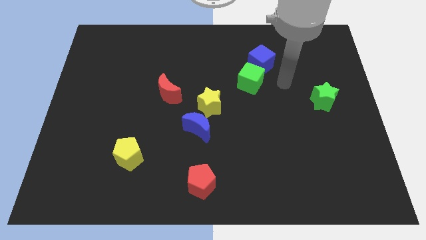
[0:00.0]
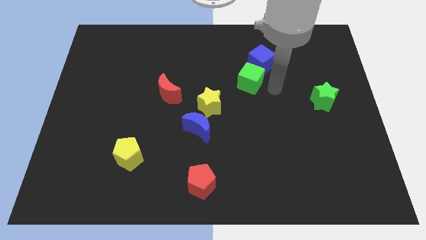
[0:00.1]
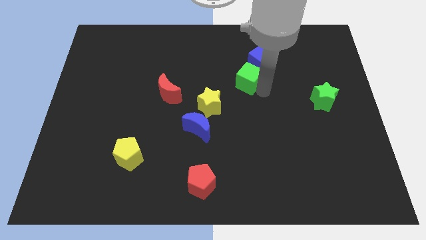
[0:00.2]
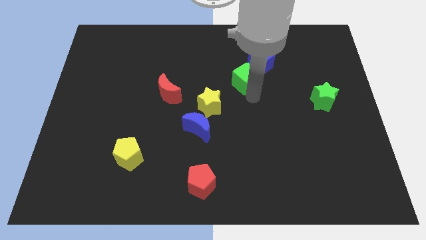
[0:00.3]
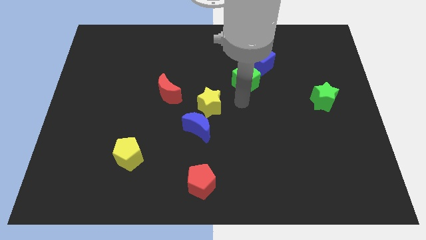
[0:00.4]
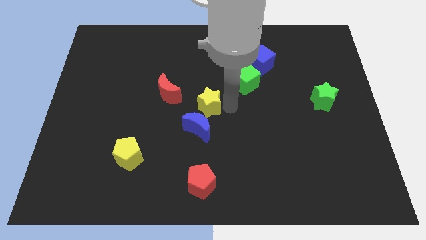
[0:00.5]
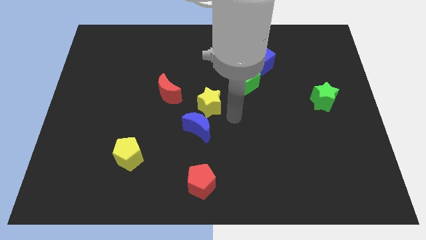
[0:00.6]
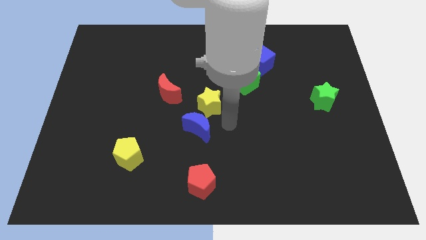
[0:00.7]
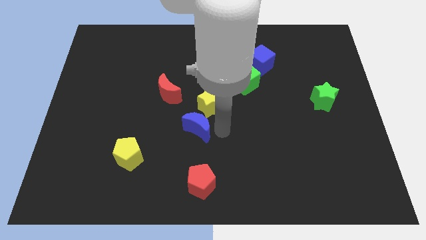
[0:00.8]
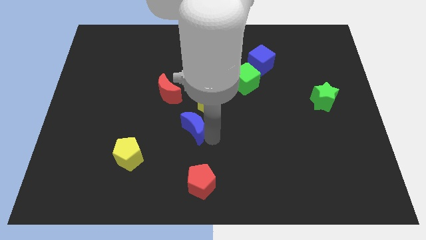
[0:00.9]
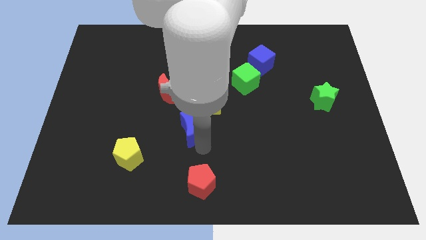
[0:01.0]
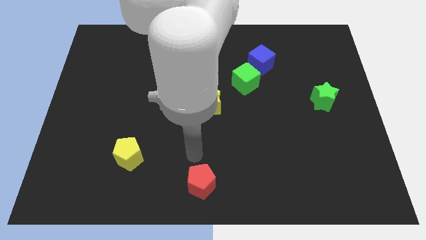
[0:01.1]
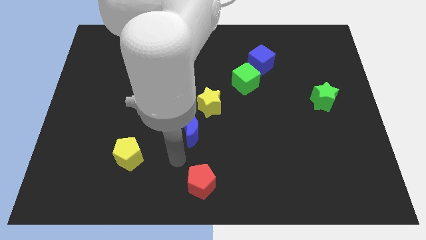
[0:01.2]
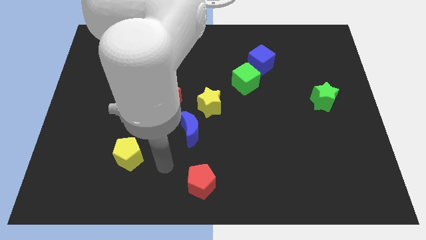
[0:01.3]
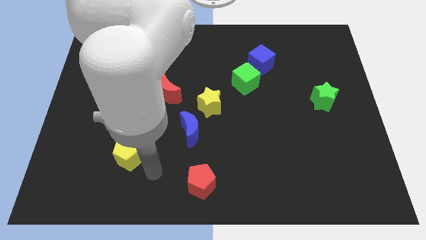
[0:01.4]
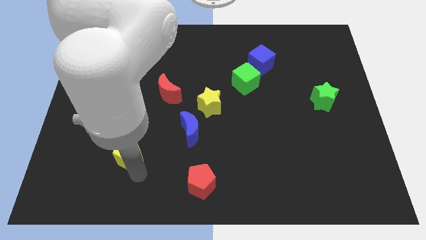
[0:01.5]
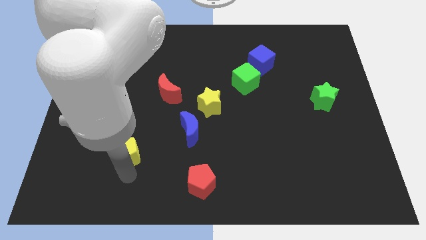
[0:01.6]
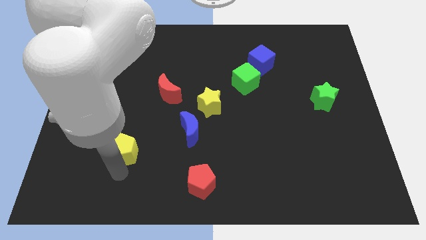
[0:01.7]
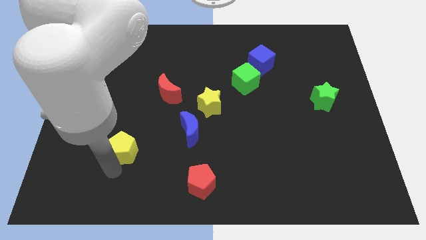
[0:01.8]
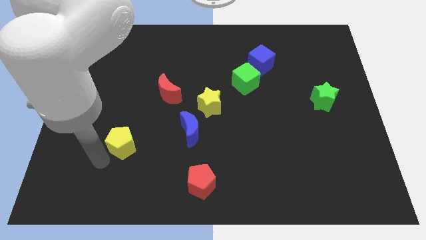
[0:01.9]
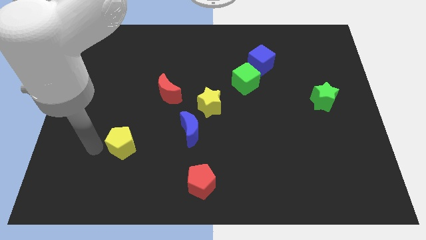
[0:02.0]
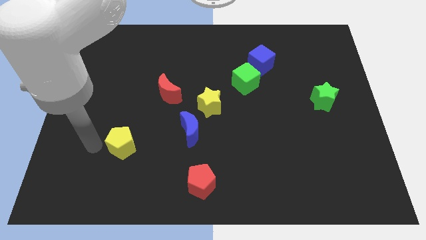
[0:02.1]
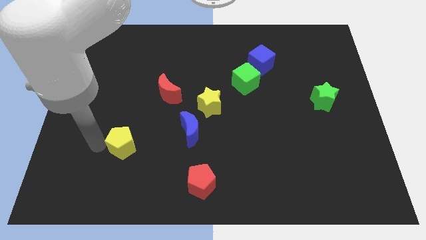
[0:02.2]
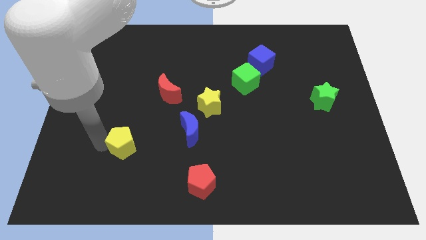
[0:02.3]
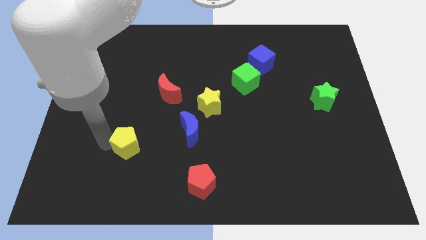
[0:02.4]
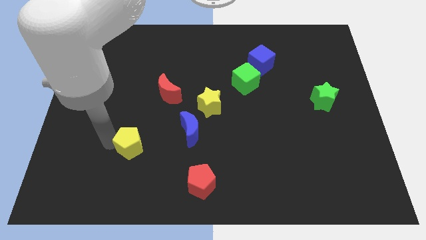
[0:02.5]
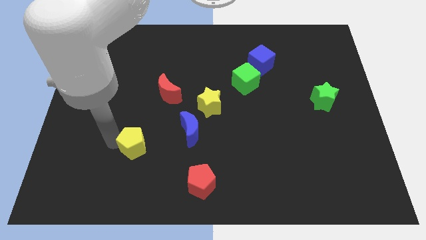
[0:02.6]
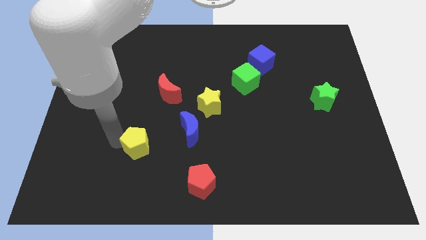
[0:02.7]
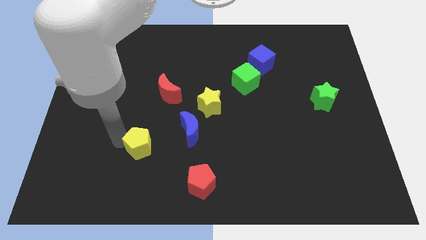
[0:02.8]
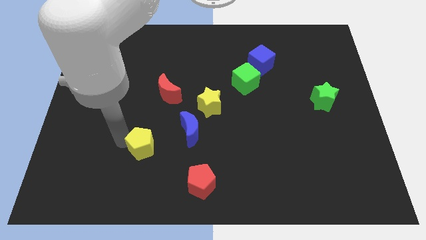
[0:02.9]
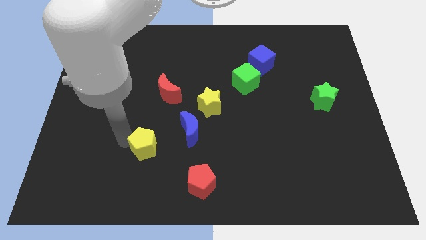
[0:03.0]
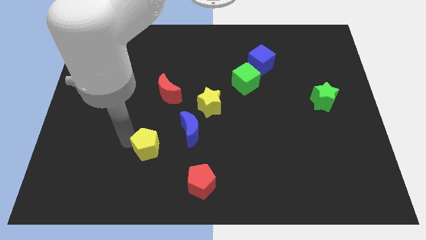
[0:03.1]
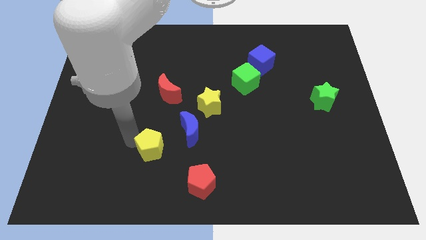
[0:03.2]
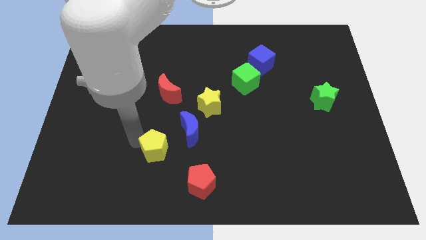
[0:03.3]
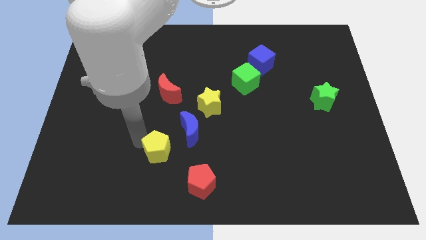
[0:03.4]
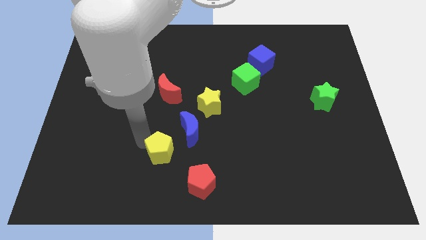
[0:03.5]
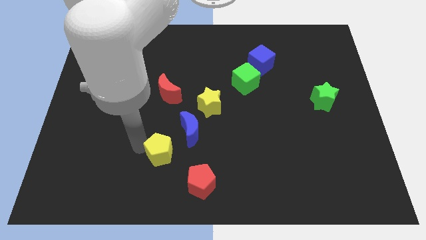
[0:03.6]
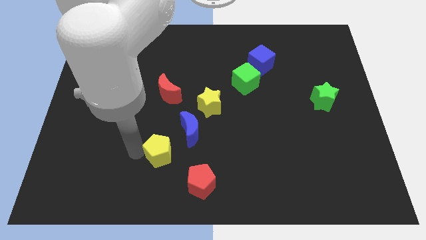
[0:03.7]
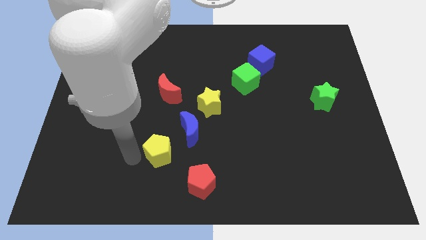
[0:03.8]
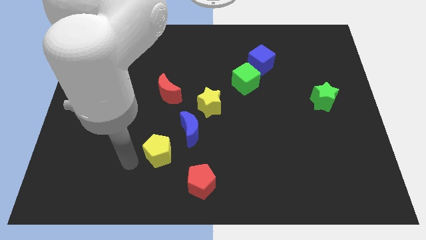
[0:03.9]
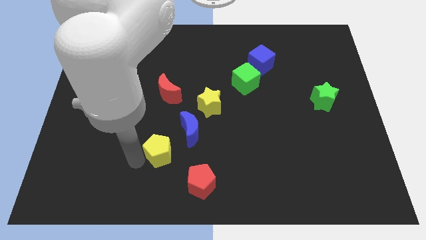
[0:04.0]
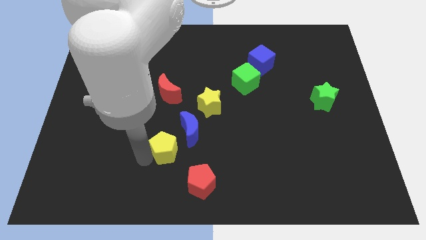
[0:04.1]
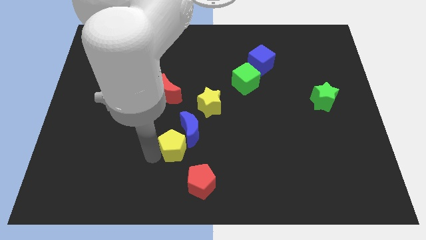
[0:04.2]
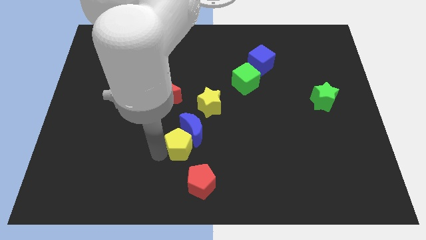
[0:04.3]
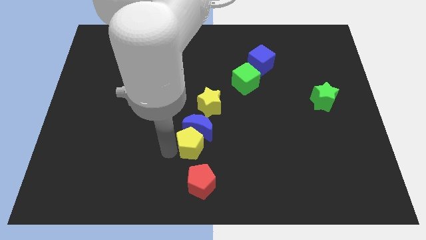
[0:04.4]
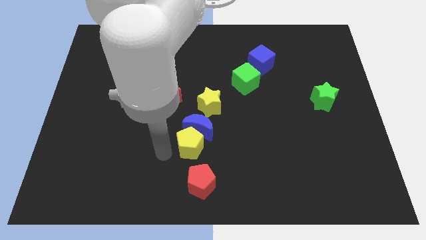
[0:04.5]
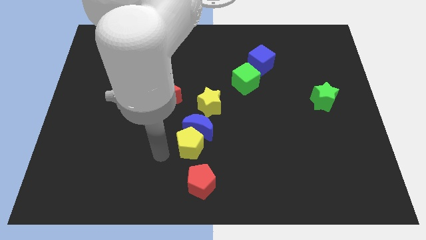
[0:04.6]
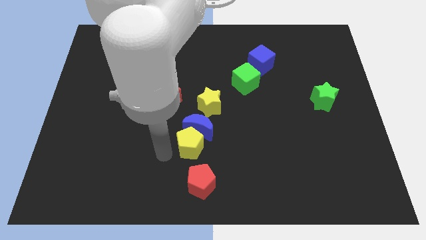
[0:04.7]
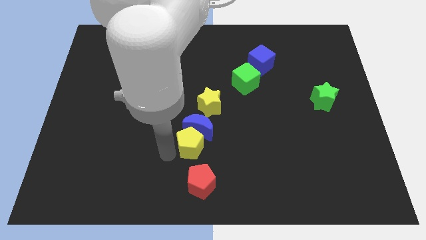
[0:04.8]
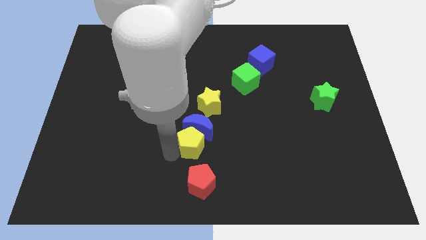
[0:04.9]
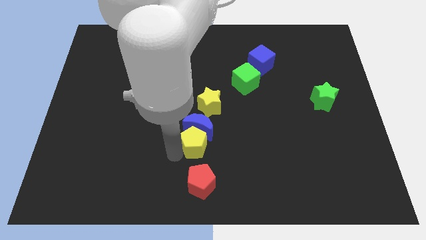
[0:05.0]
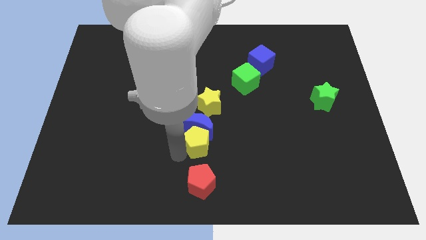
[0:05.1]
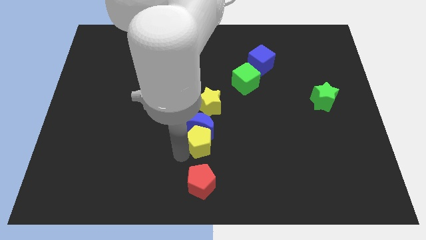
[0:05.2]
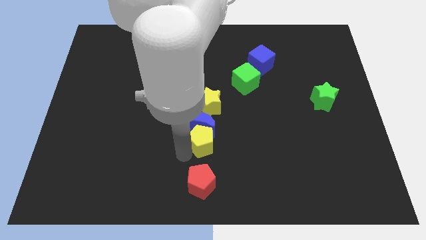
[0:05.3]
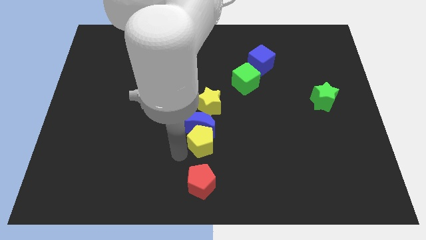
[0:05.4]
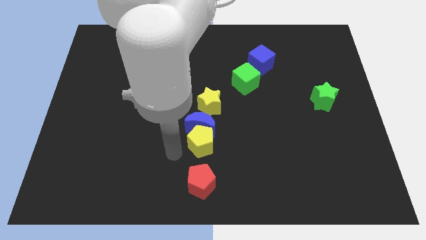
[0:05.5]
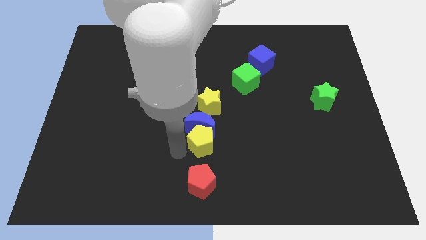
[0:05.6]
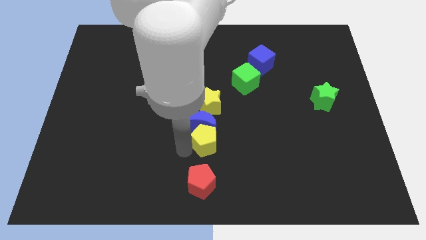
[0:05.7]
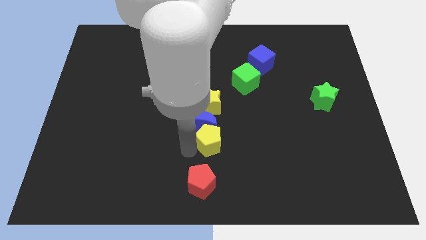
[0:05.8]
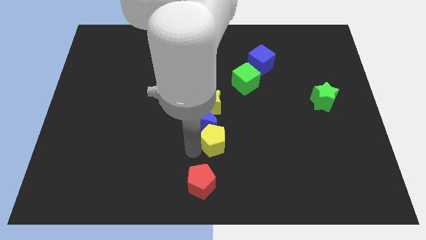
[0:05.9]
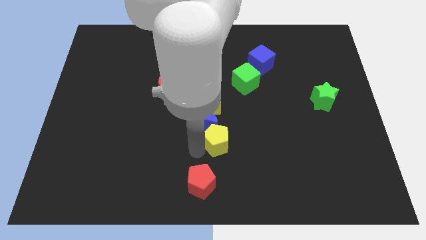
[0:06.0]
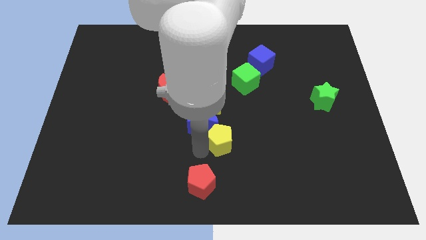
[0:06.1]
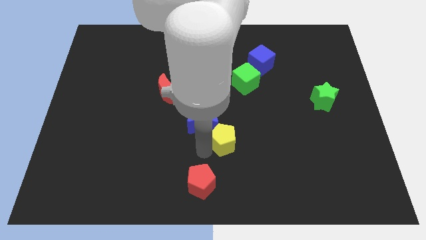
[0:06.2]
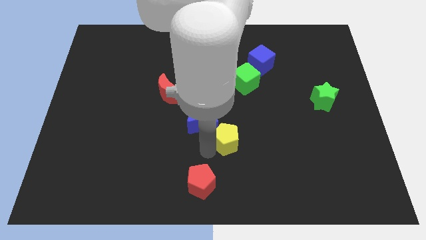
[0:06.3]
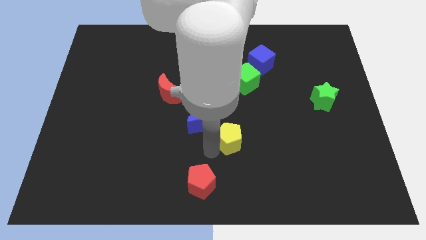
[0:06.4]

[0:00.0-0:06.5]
push the yellow pentagon to the bottom right side of the yellow star

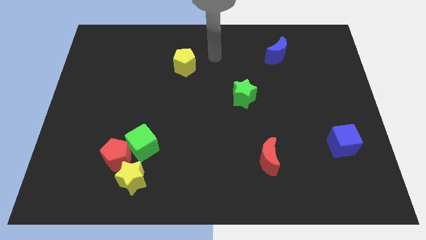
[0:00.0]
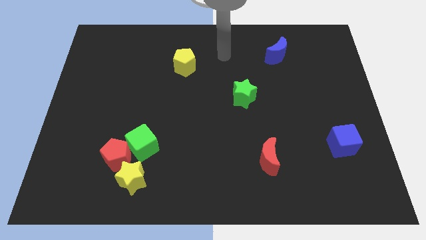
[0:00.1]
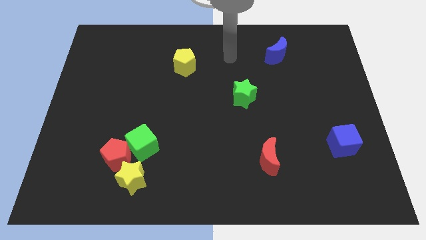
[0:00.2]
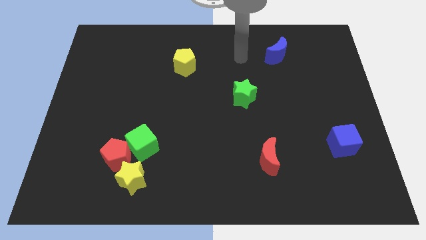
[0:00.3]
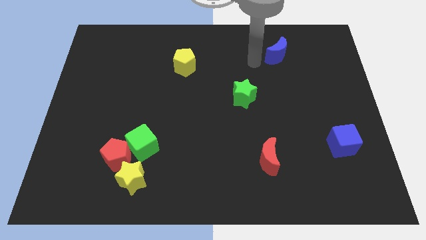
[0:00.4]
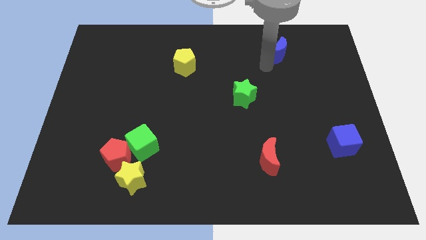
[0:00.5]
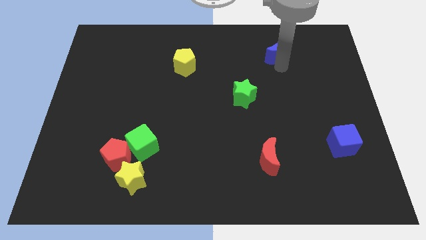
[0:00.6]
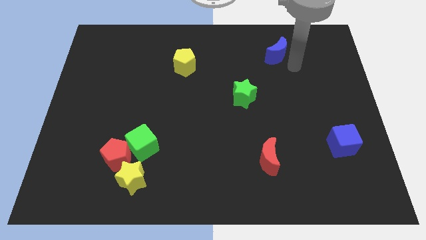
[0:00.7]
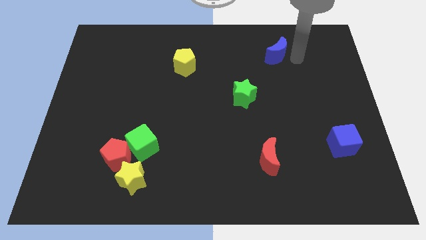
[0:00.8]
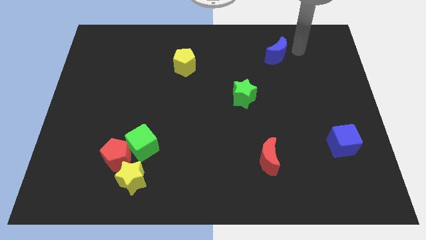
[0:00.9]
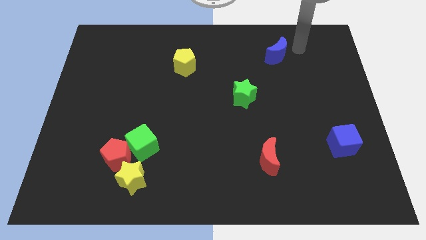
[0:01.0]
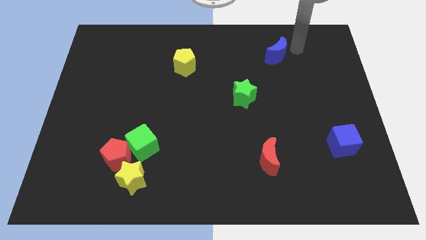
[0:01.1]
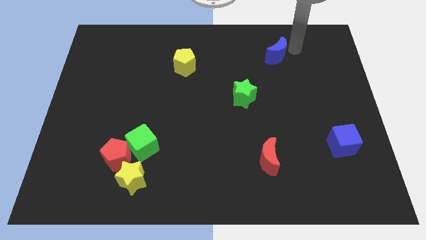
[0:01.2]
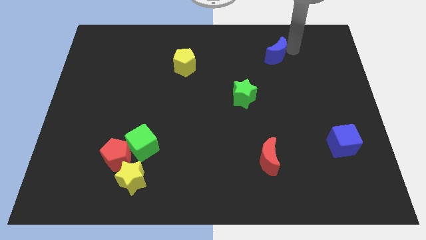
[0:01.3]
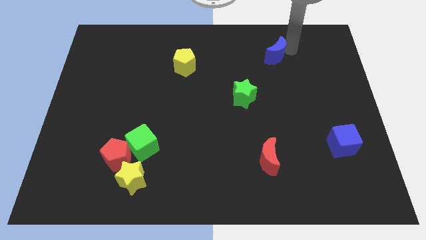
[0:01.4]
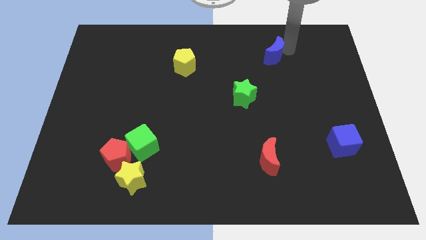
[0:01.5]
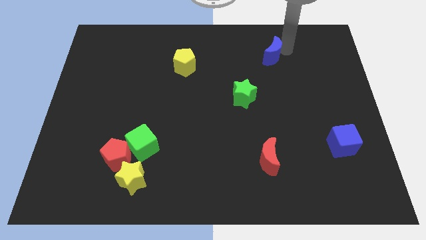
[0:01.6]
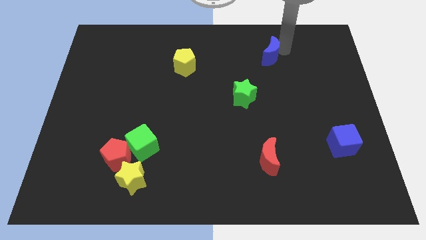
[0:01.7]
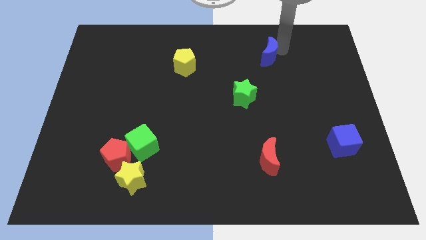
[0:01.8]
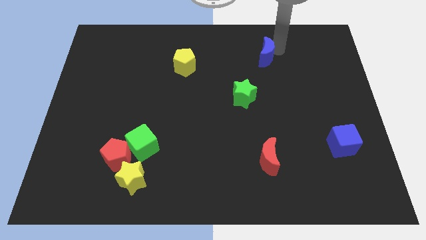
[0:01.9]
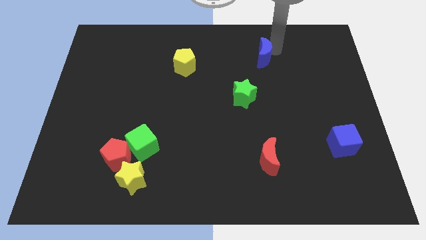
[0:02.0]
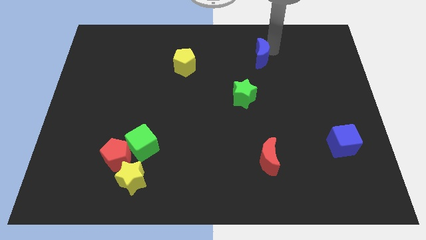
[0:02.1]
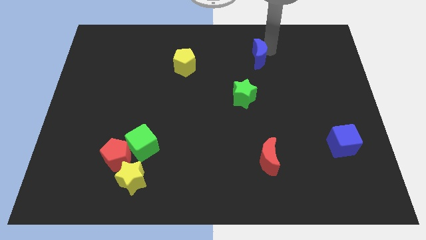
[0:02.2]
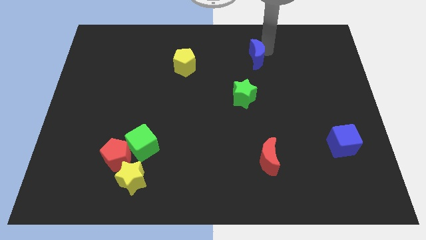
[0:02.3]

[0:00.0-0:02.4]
slide the blue moon to the top side of the green star
